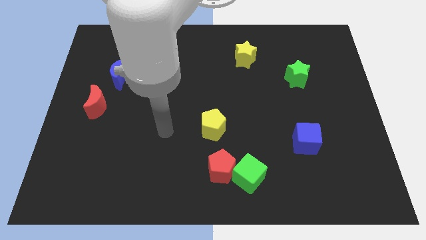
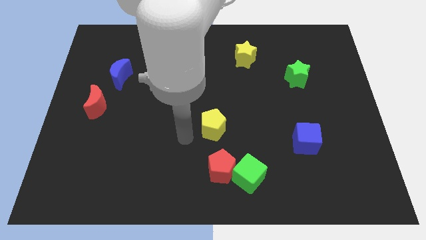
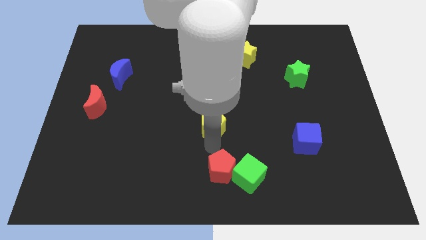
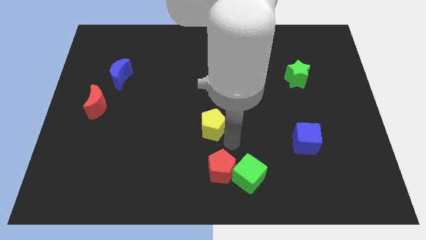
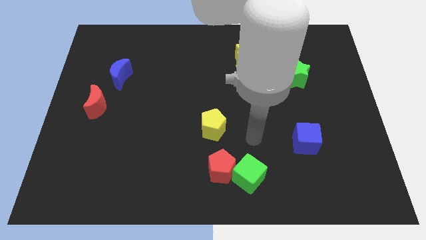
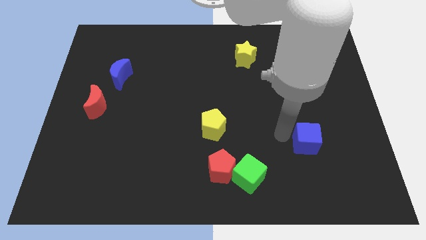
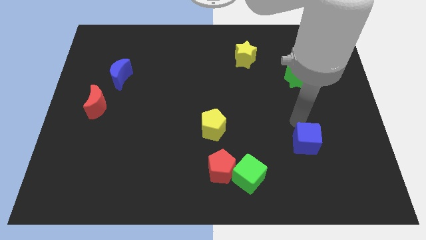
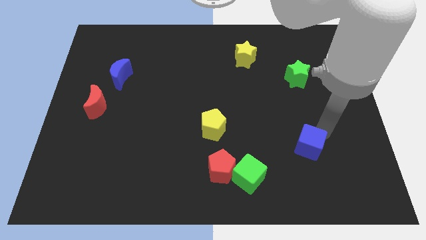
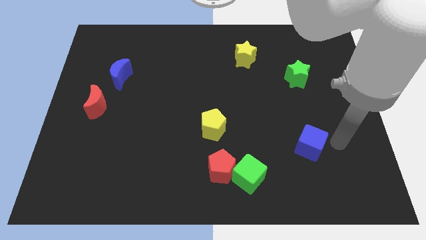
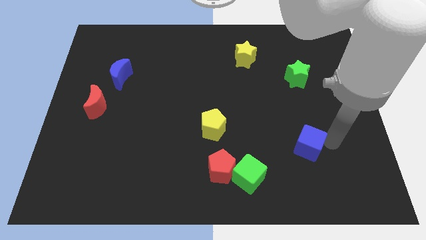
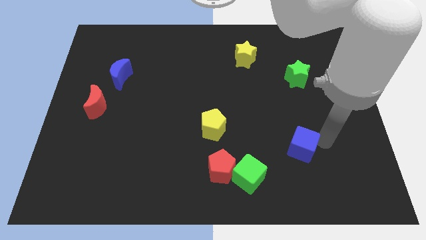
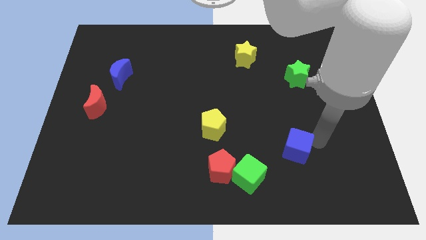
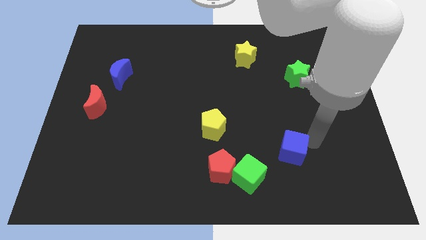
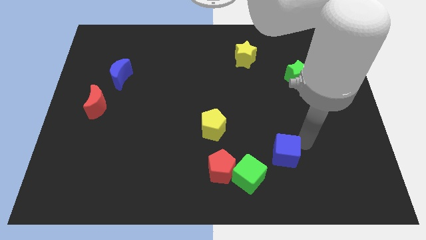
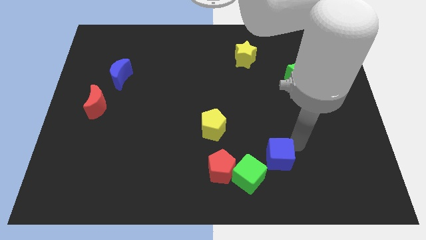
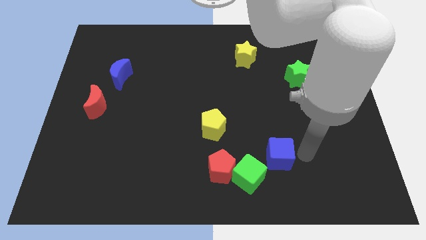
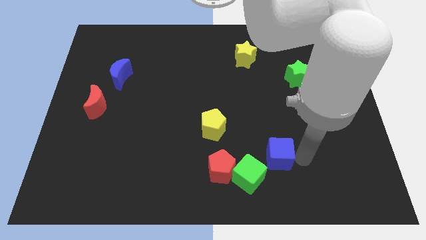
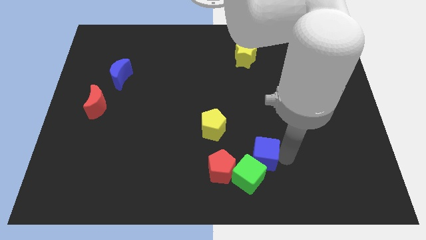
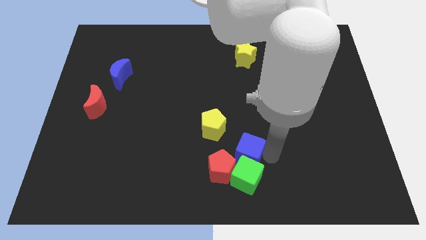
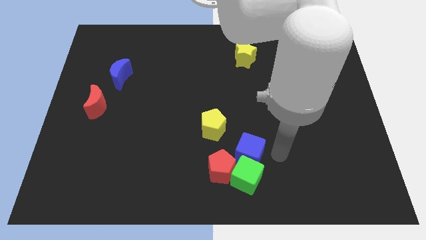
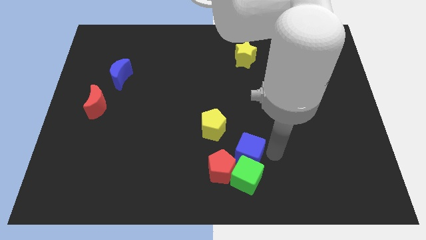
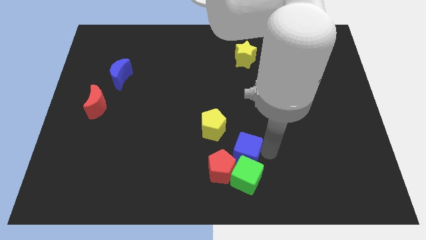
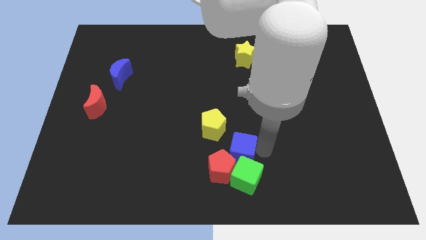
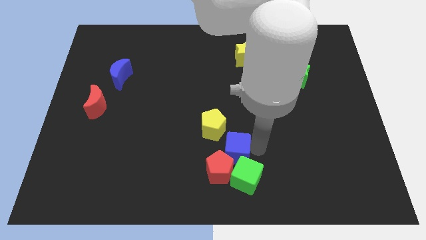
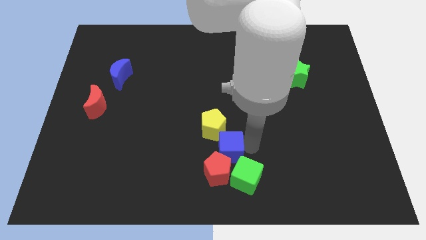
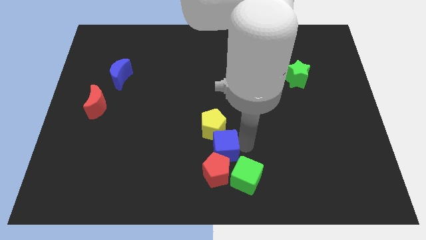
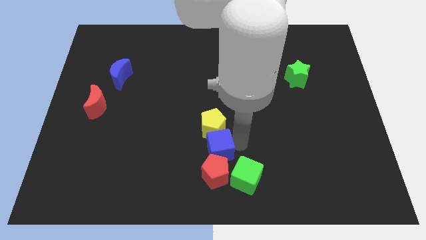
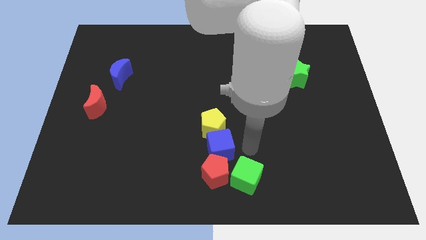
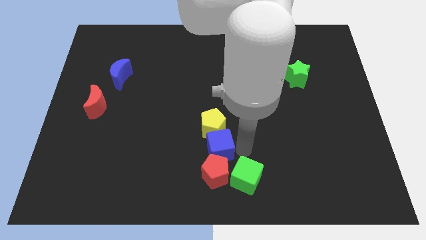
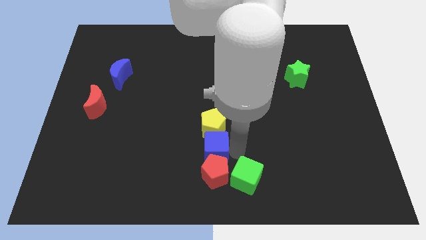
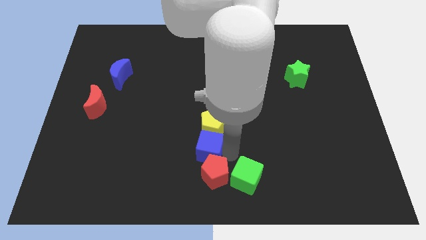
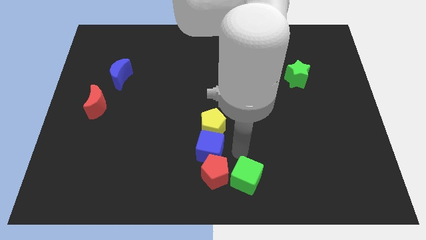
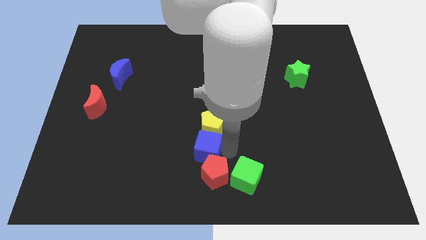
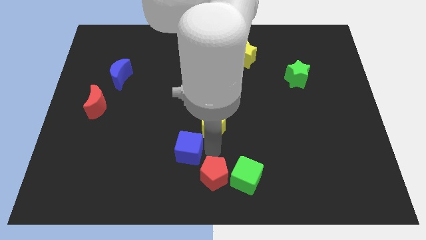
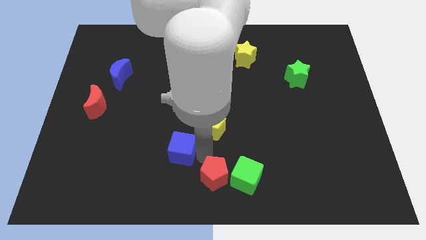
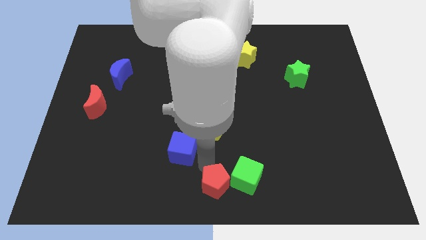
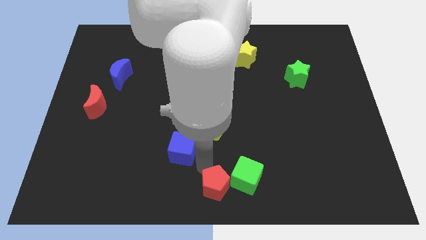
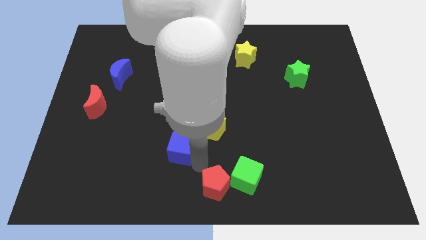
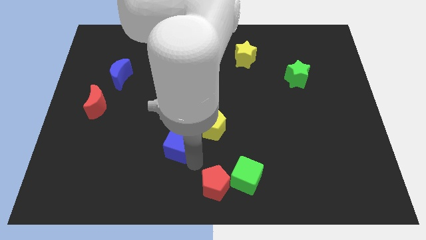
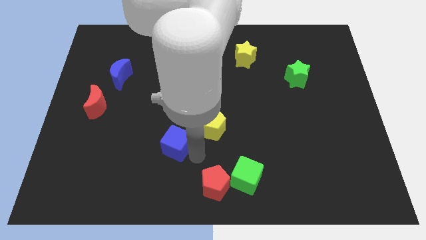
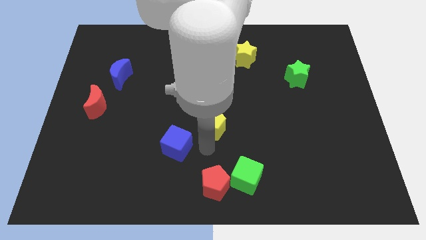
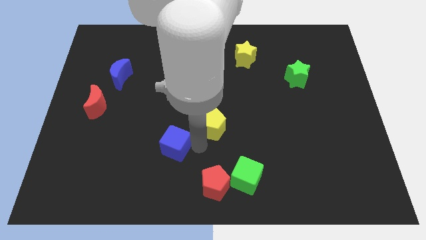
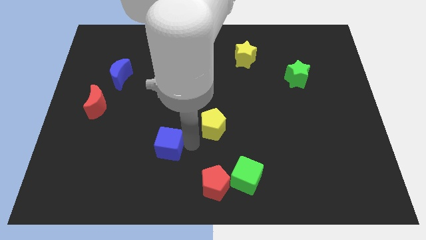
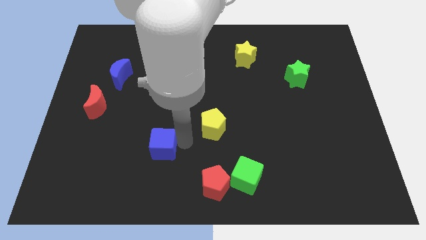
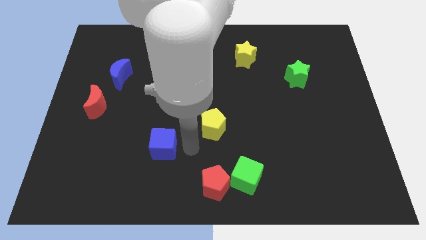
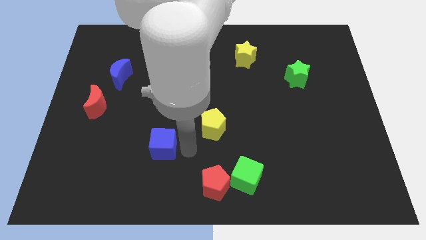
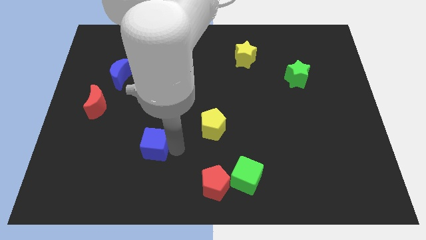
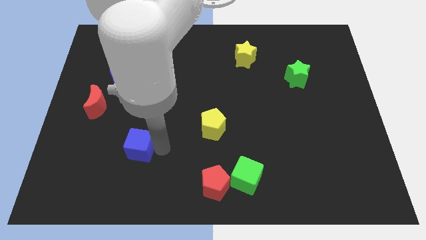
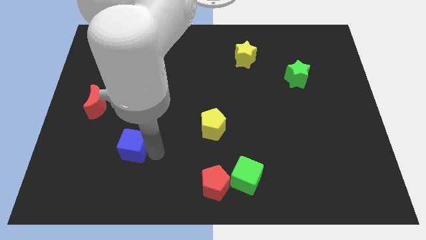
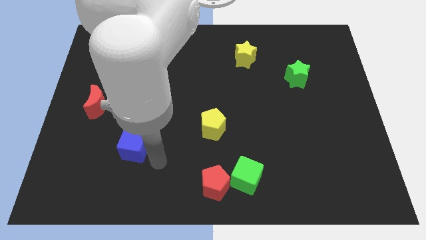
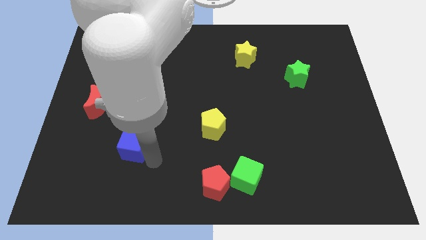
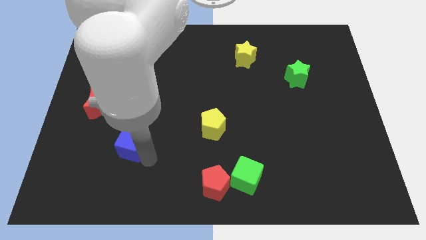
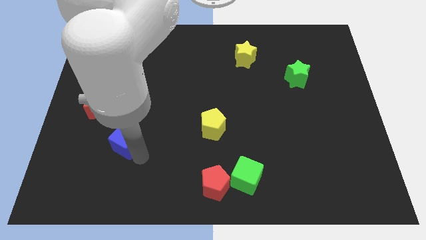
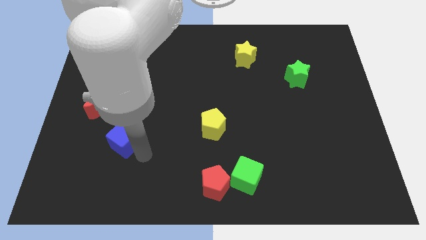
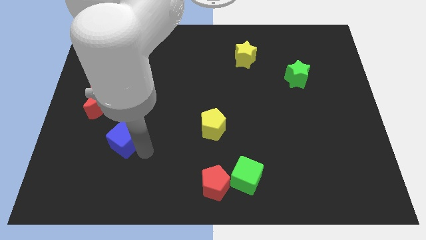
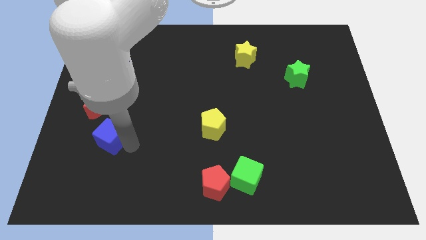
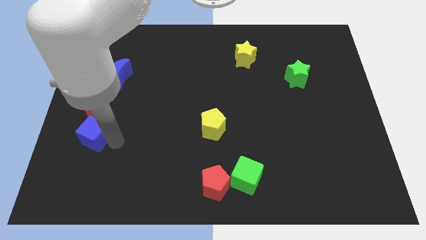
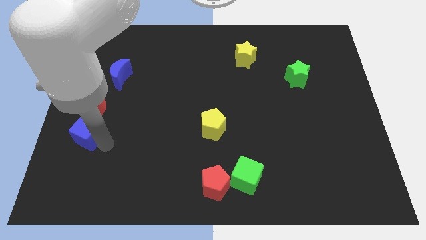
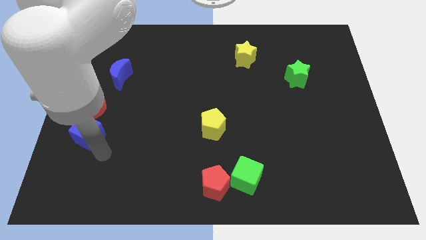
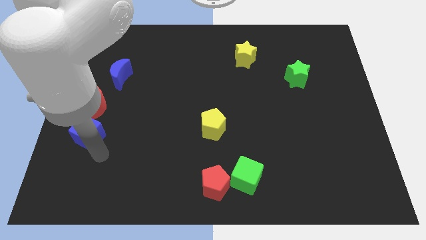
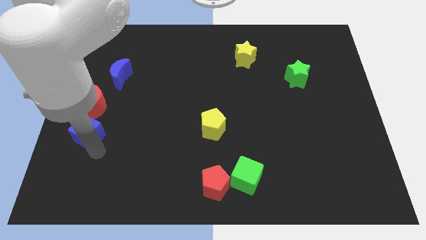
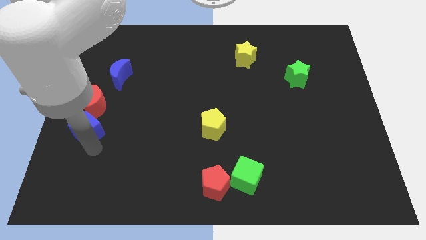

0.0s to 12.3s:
slide the blue cube to the left side
